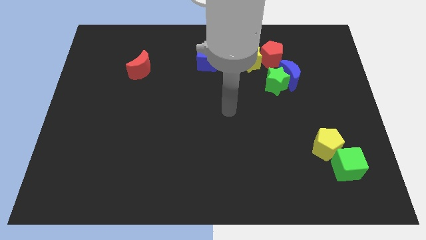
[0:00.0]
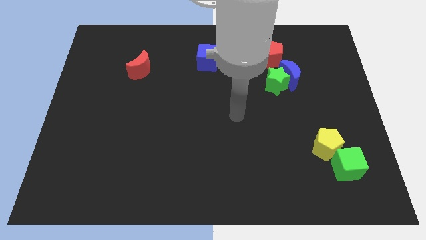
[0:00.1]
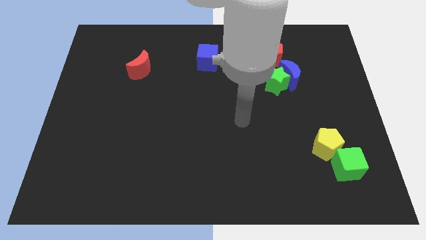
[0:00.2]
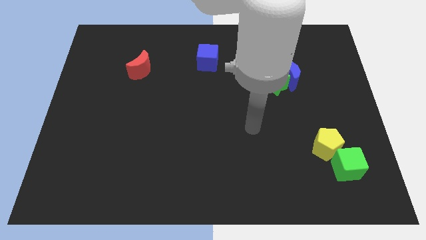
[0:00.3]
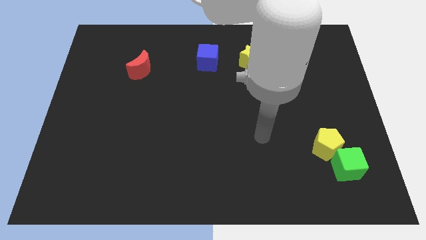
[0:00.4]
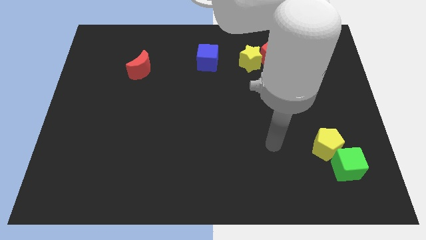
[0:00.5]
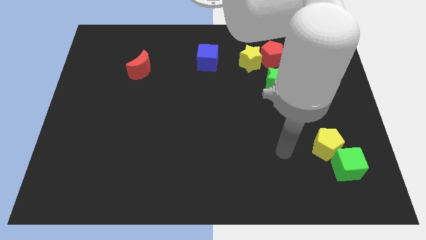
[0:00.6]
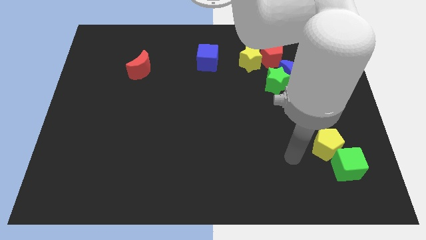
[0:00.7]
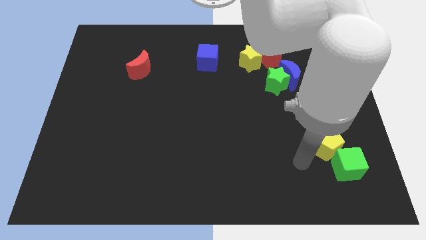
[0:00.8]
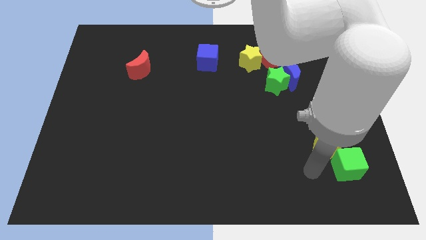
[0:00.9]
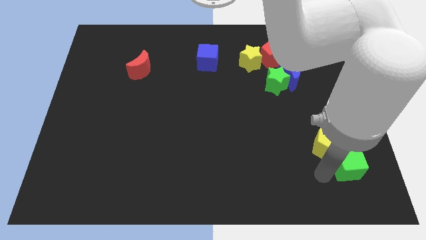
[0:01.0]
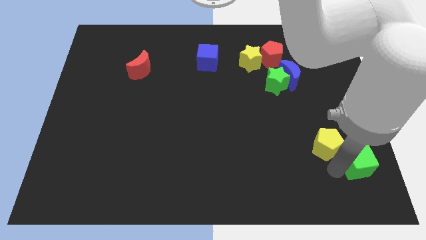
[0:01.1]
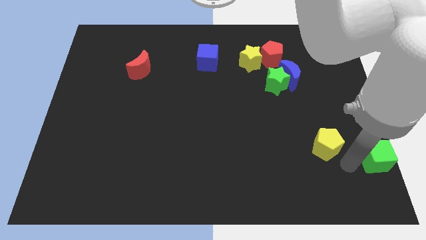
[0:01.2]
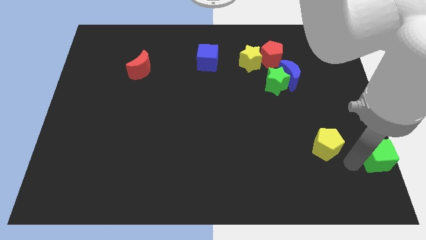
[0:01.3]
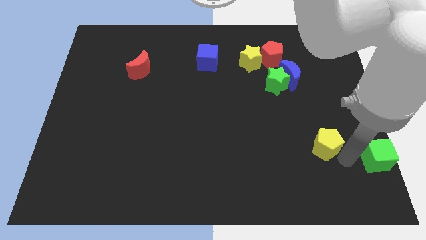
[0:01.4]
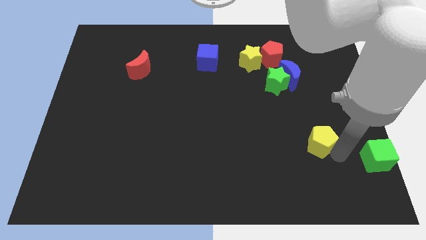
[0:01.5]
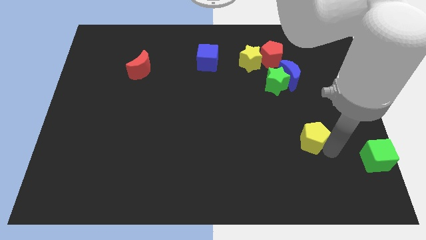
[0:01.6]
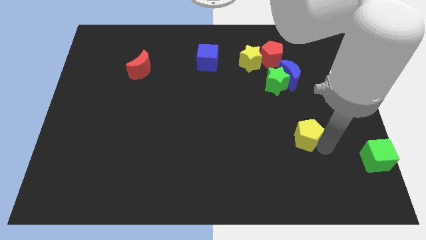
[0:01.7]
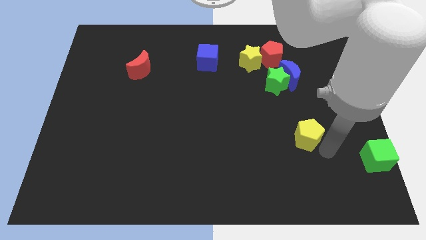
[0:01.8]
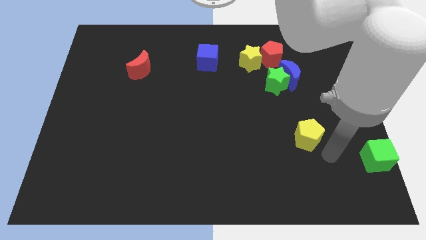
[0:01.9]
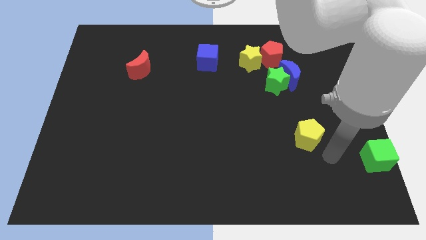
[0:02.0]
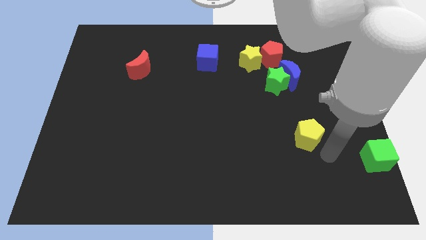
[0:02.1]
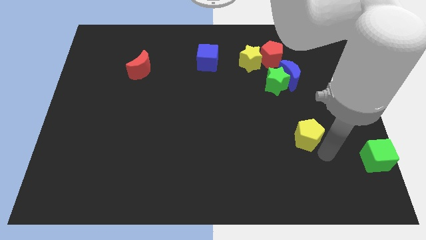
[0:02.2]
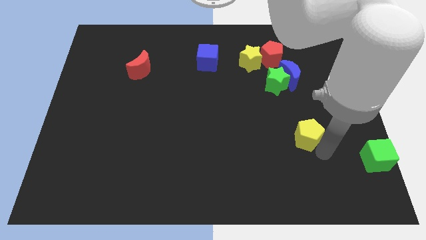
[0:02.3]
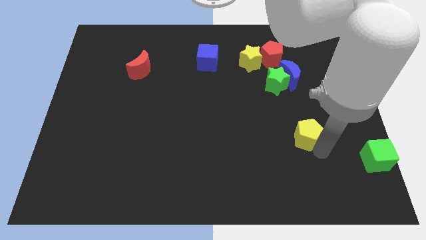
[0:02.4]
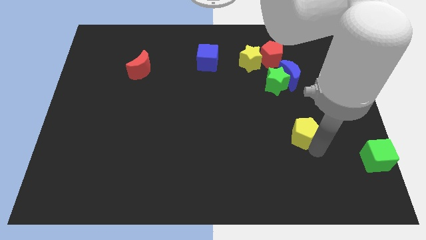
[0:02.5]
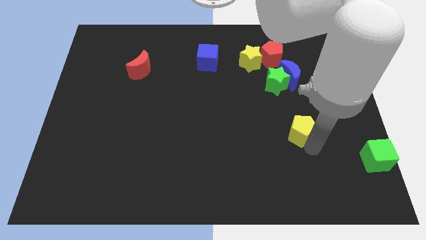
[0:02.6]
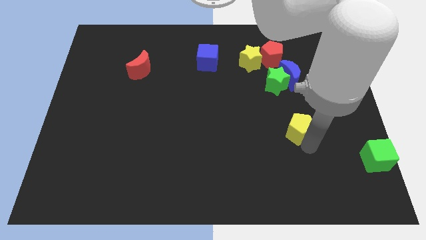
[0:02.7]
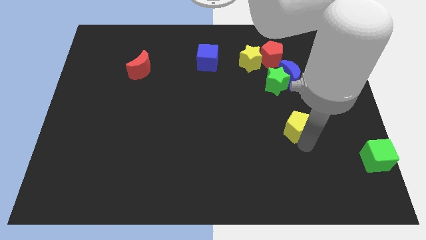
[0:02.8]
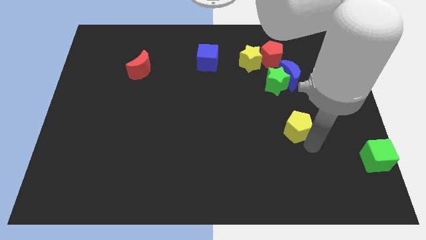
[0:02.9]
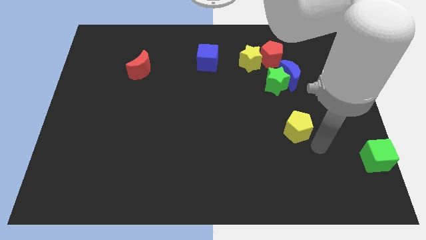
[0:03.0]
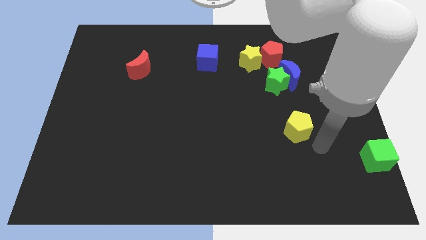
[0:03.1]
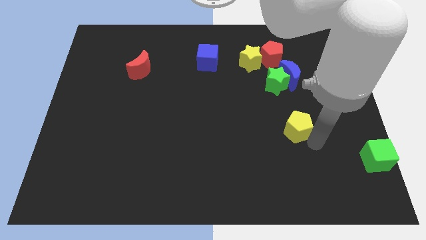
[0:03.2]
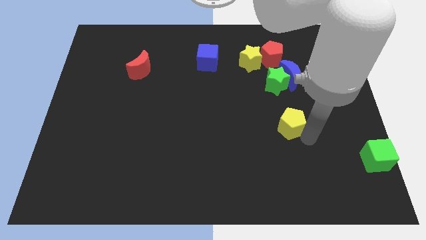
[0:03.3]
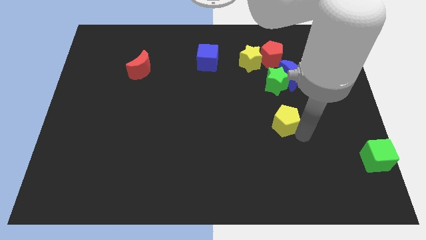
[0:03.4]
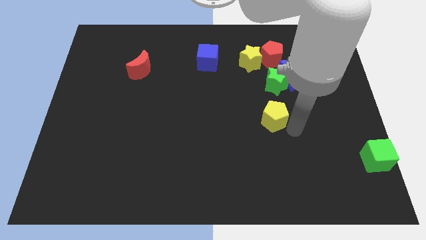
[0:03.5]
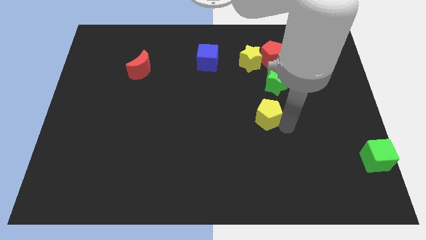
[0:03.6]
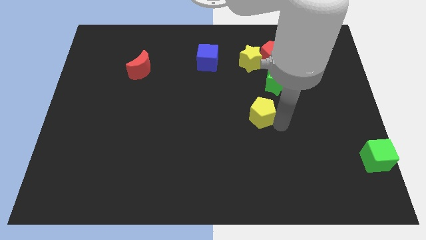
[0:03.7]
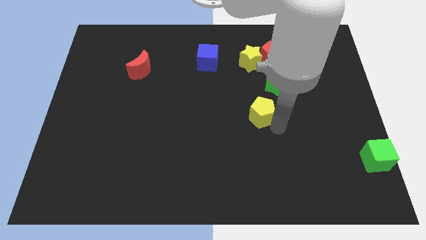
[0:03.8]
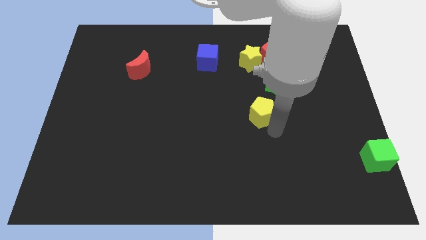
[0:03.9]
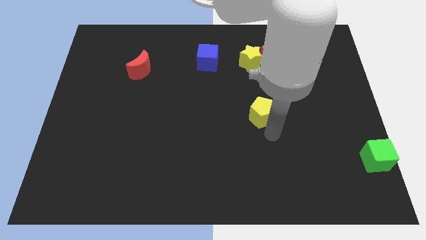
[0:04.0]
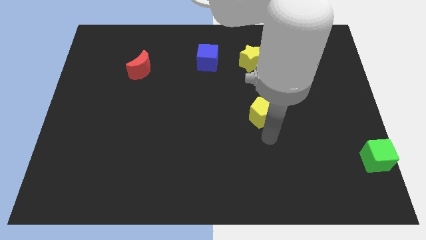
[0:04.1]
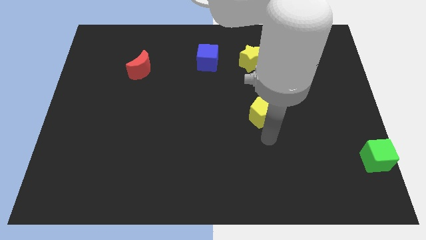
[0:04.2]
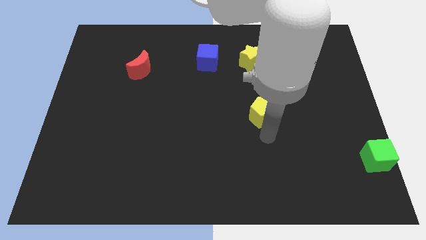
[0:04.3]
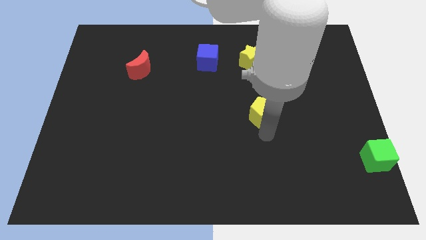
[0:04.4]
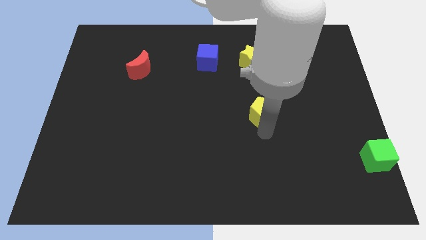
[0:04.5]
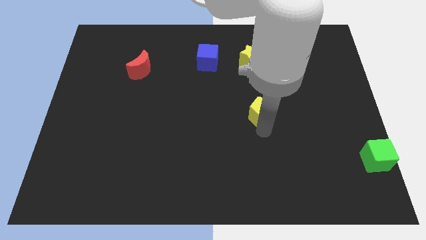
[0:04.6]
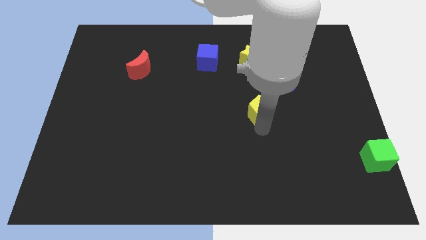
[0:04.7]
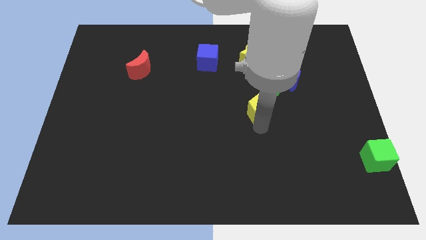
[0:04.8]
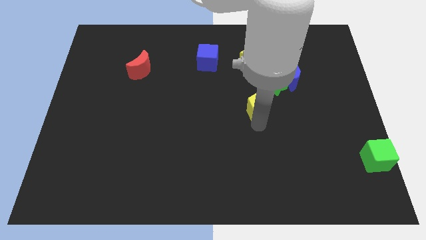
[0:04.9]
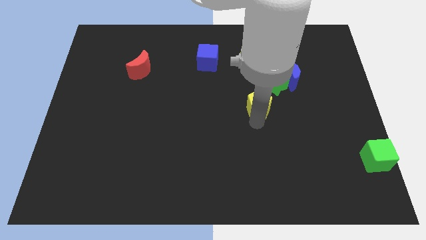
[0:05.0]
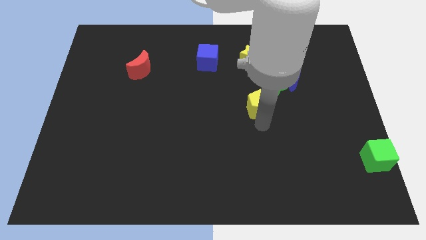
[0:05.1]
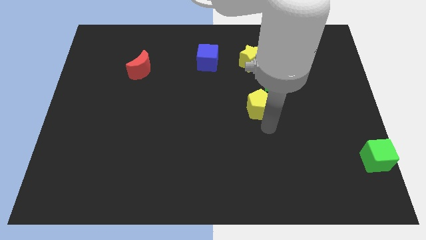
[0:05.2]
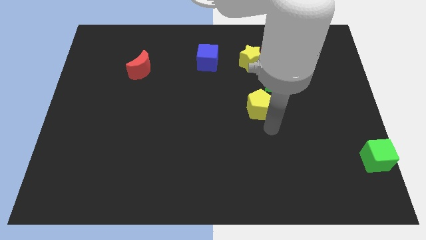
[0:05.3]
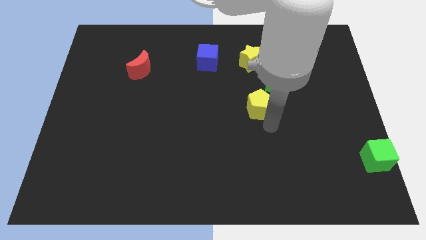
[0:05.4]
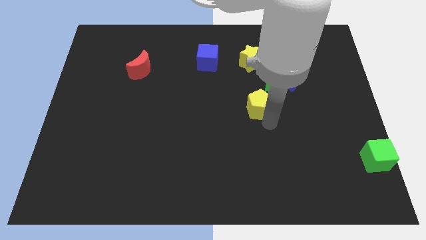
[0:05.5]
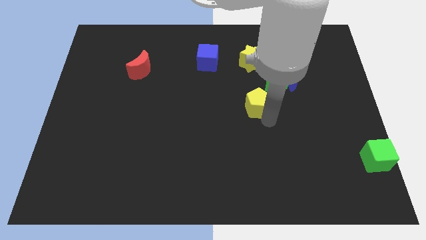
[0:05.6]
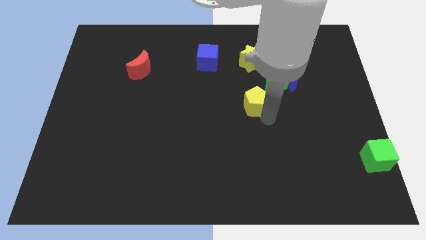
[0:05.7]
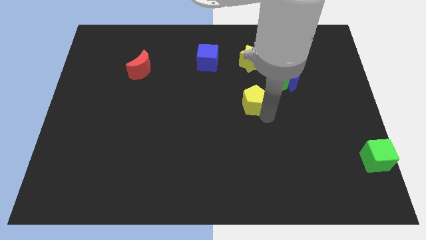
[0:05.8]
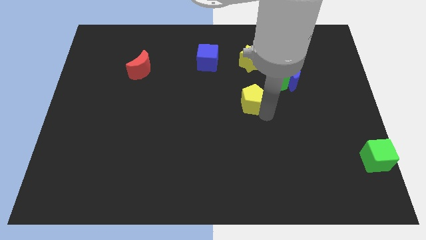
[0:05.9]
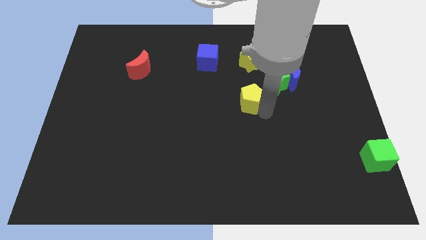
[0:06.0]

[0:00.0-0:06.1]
push the yellow pentagon diagonally upwards and to the left

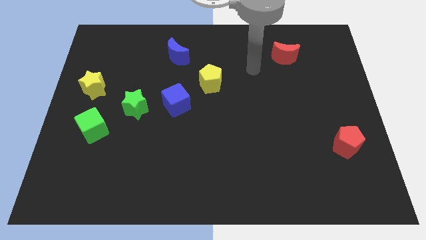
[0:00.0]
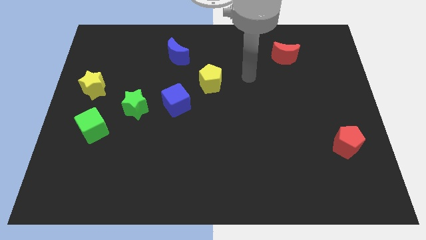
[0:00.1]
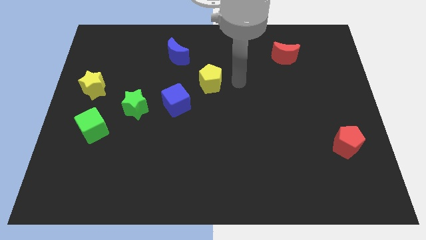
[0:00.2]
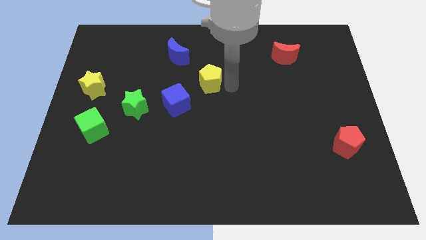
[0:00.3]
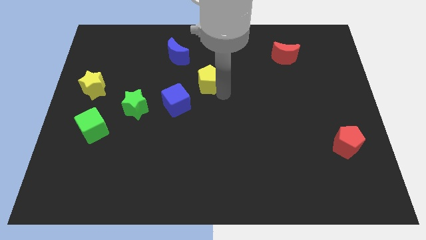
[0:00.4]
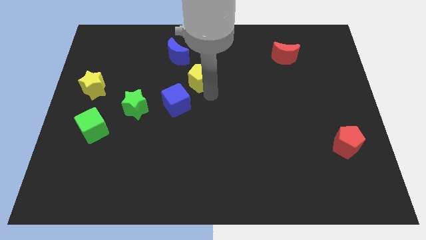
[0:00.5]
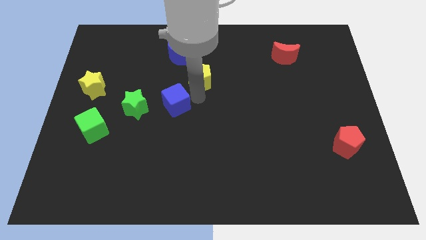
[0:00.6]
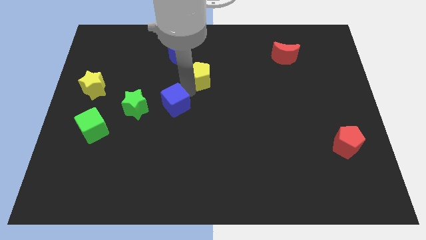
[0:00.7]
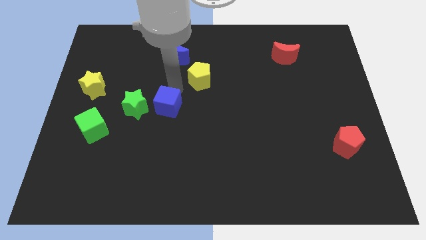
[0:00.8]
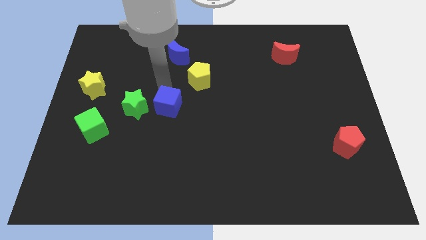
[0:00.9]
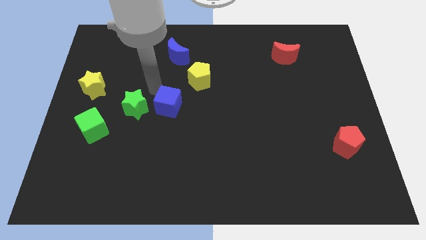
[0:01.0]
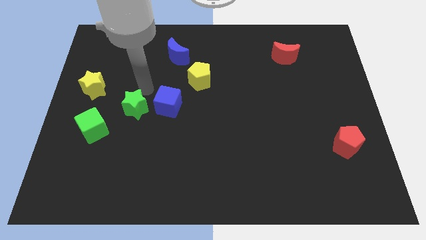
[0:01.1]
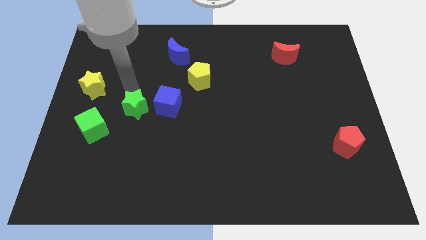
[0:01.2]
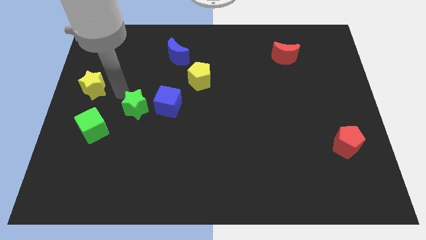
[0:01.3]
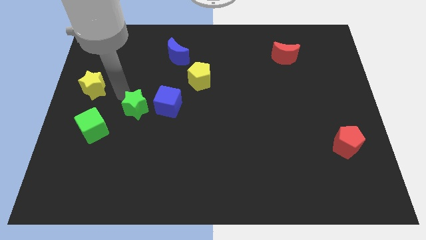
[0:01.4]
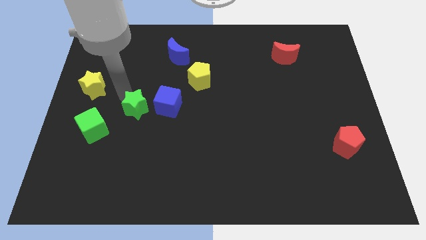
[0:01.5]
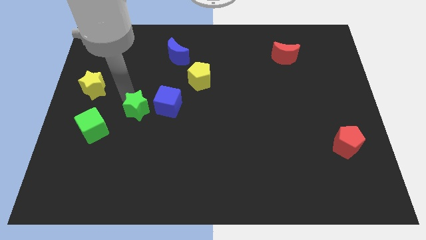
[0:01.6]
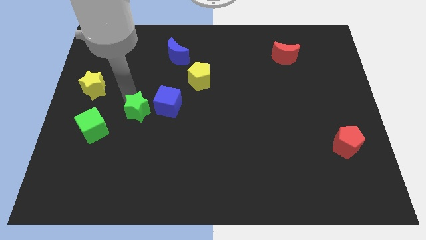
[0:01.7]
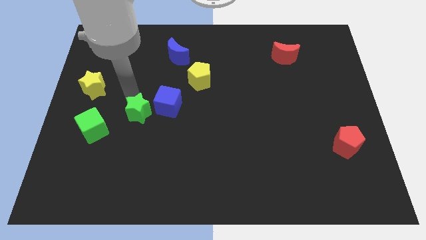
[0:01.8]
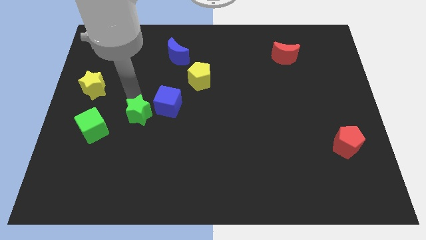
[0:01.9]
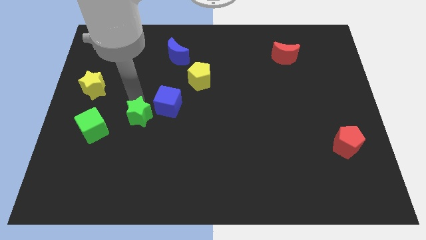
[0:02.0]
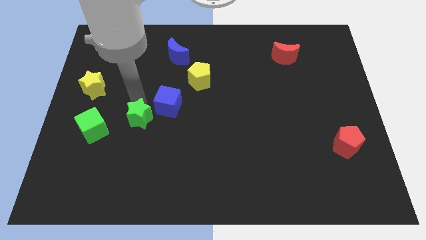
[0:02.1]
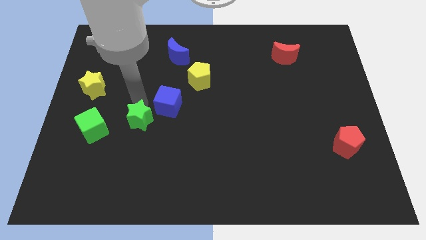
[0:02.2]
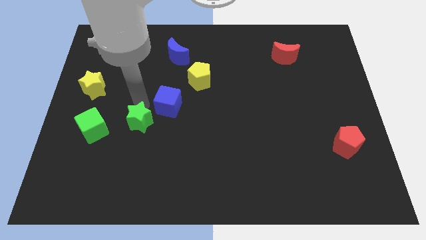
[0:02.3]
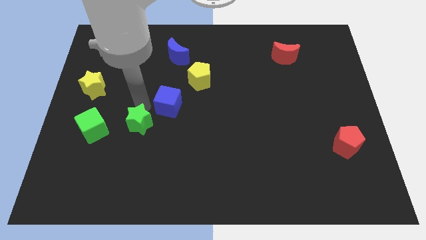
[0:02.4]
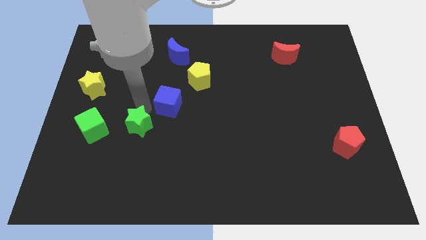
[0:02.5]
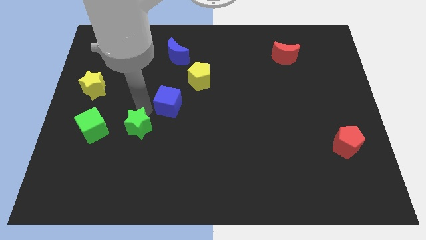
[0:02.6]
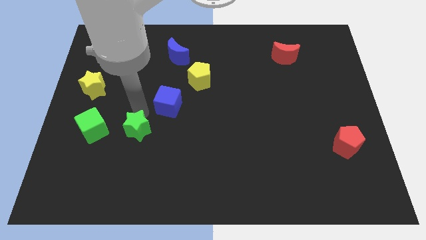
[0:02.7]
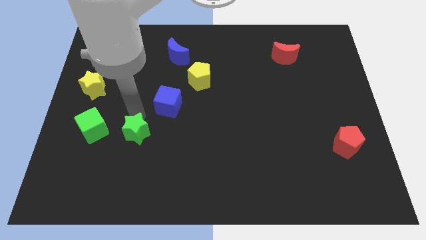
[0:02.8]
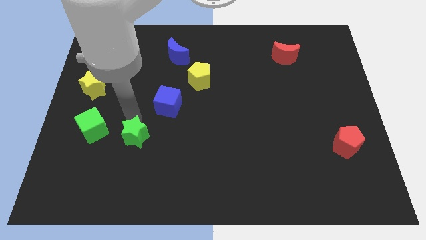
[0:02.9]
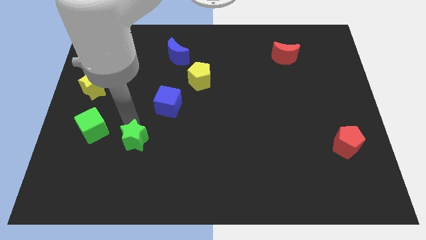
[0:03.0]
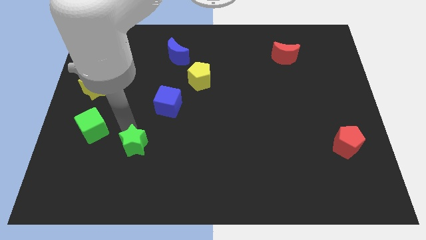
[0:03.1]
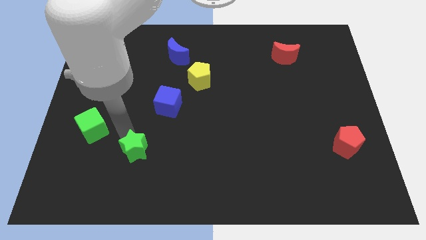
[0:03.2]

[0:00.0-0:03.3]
slightly push the green star diagonally down and right
